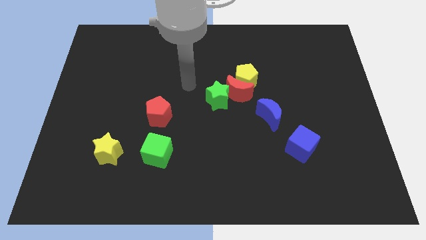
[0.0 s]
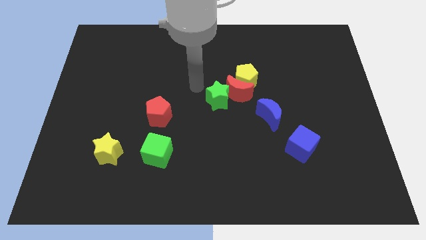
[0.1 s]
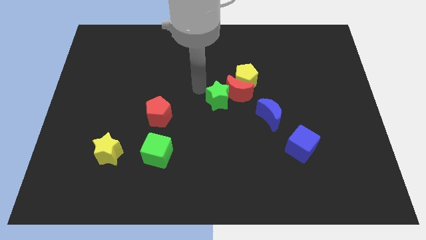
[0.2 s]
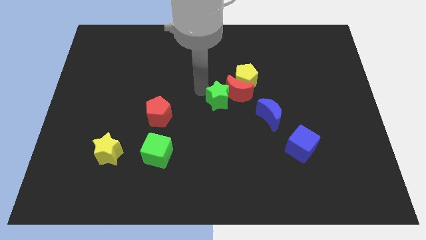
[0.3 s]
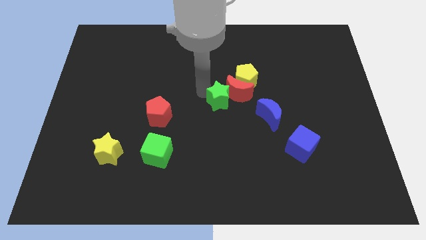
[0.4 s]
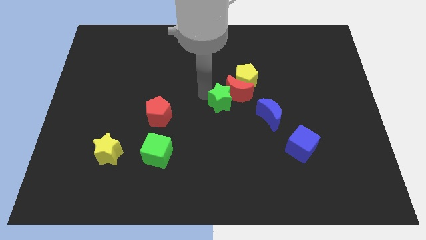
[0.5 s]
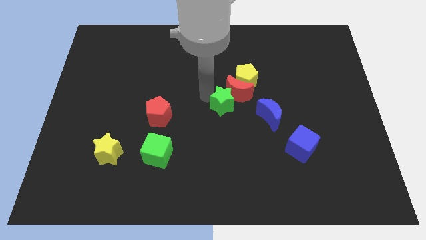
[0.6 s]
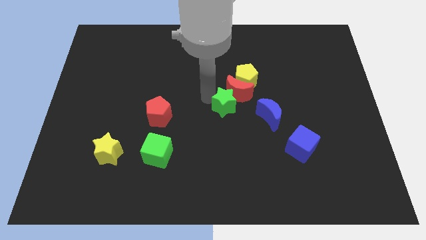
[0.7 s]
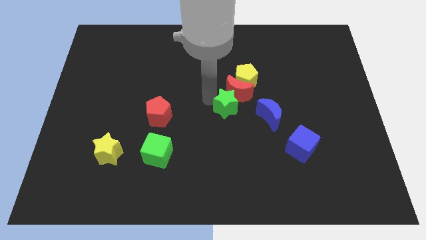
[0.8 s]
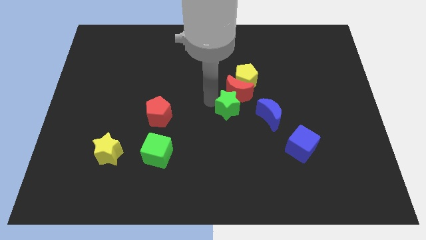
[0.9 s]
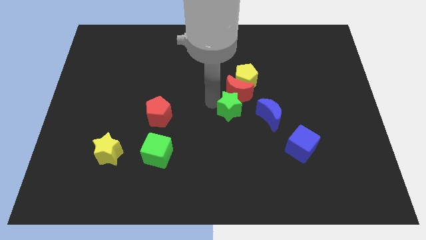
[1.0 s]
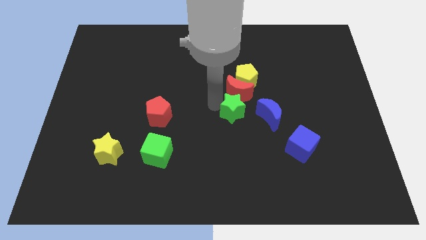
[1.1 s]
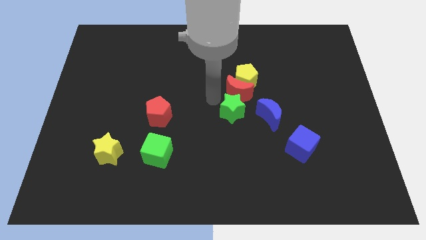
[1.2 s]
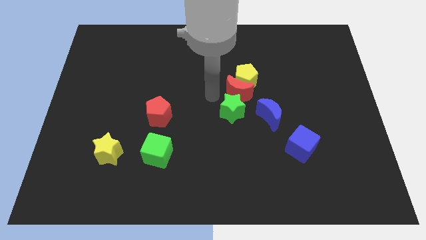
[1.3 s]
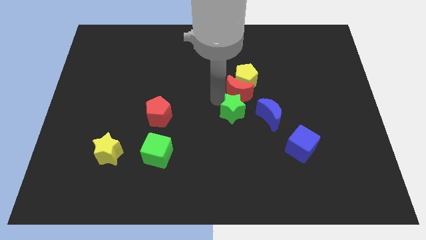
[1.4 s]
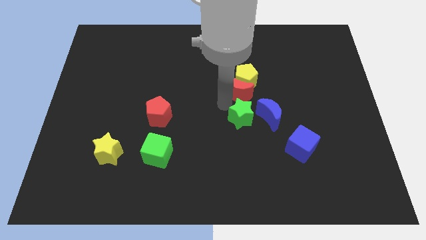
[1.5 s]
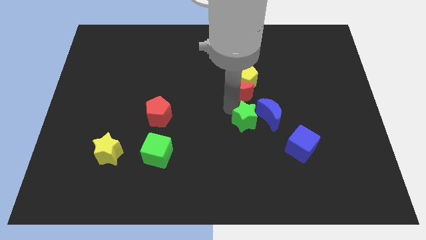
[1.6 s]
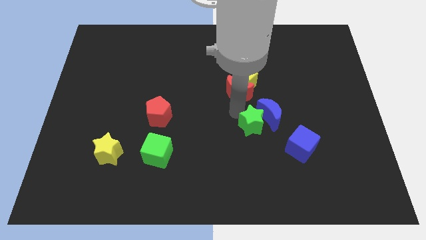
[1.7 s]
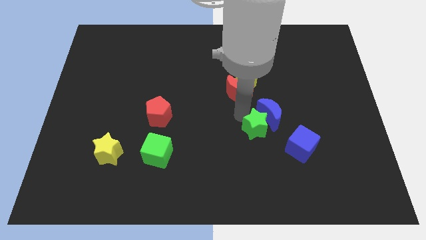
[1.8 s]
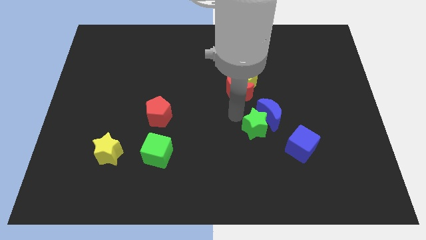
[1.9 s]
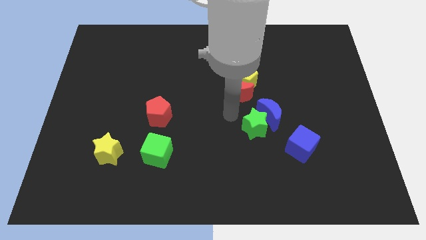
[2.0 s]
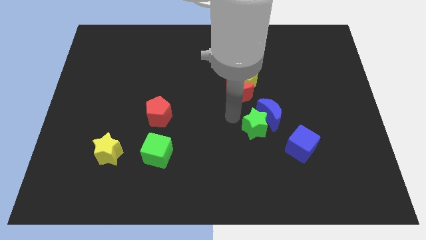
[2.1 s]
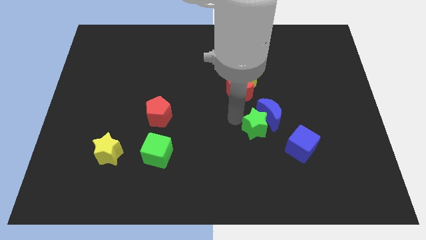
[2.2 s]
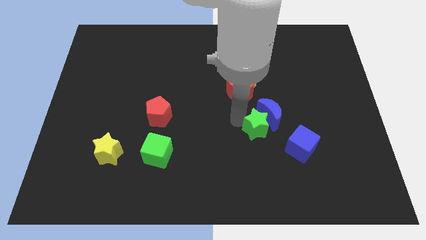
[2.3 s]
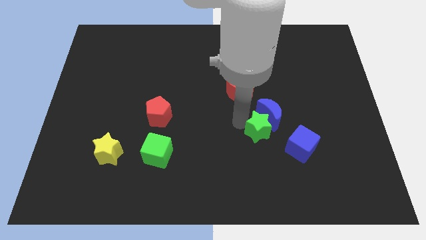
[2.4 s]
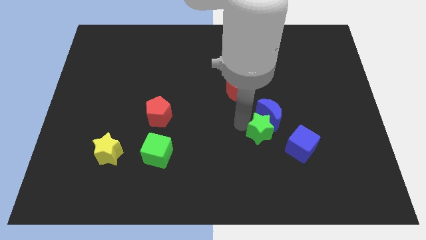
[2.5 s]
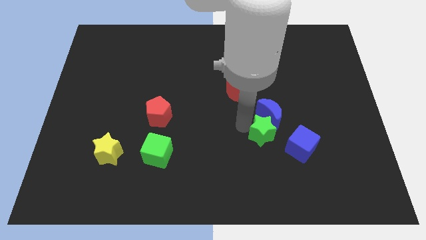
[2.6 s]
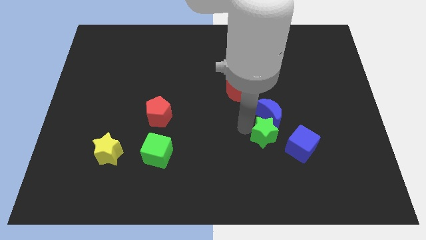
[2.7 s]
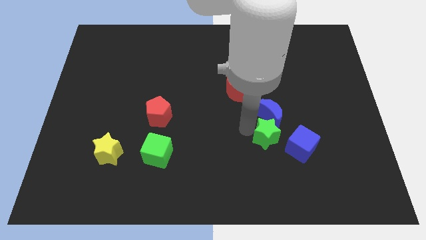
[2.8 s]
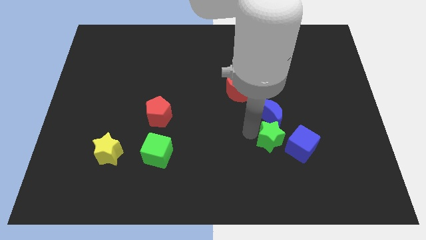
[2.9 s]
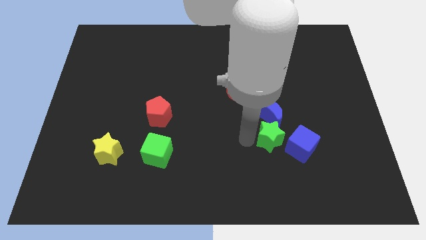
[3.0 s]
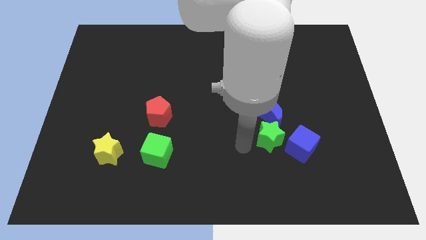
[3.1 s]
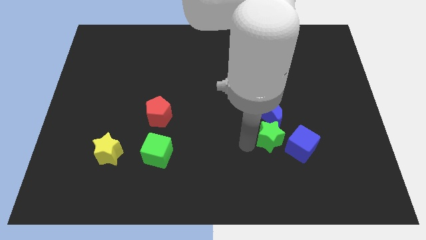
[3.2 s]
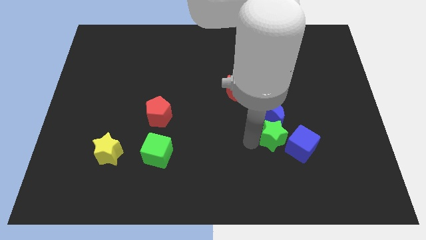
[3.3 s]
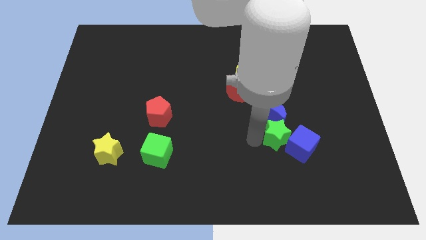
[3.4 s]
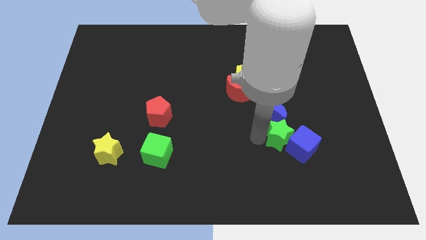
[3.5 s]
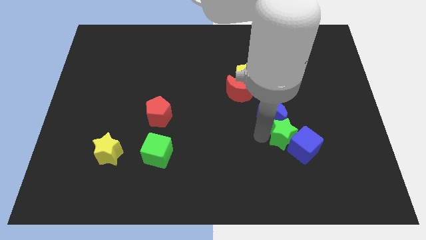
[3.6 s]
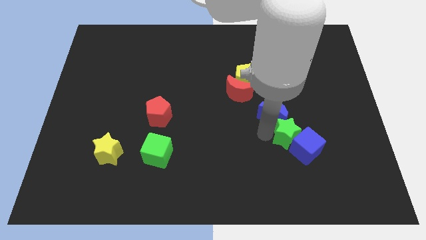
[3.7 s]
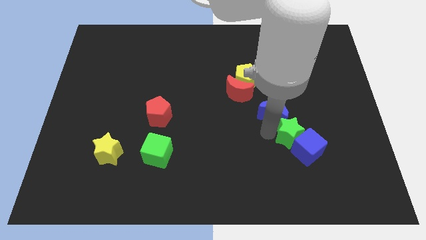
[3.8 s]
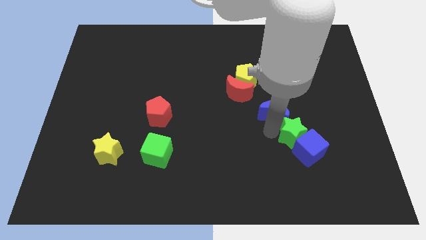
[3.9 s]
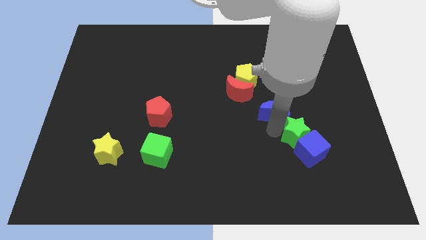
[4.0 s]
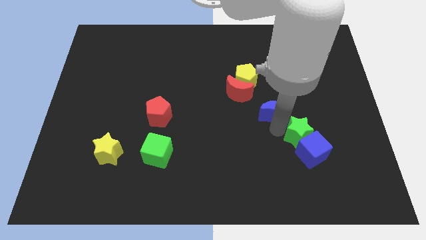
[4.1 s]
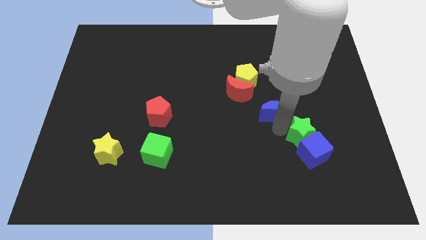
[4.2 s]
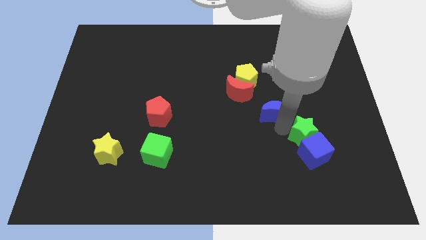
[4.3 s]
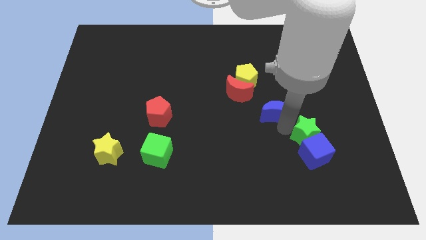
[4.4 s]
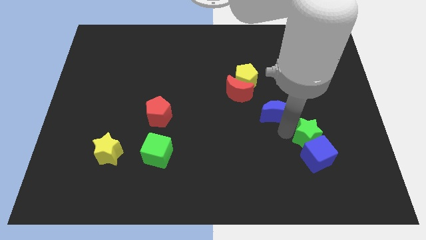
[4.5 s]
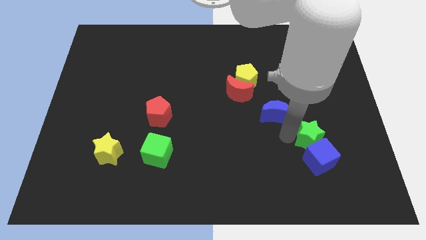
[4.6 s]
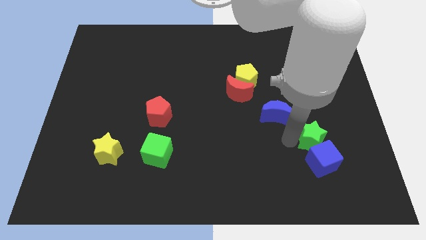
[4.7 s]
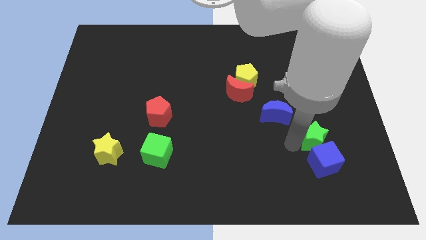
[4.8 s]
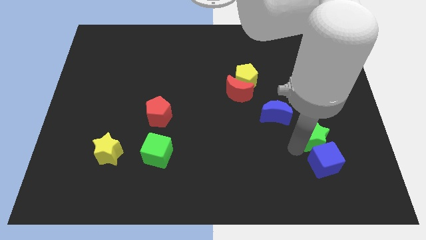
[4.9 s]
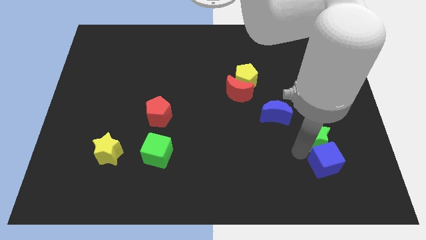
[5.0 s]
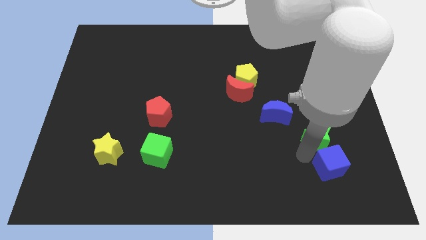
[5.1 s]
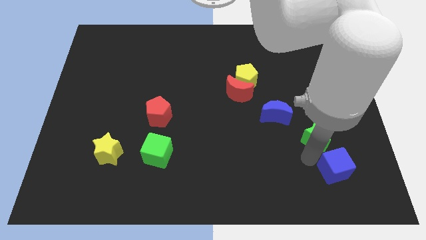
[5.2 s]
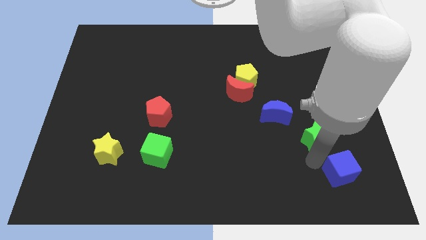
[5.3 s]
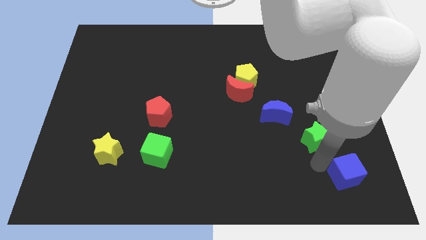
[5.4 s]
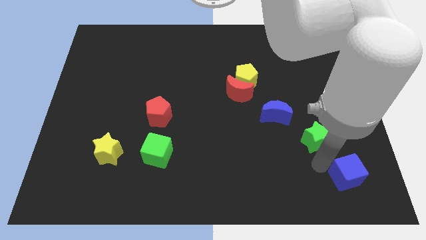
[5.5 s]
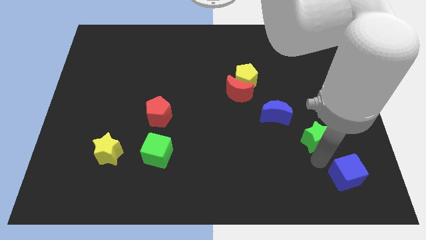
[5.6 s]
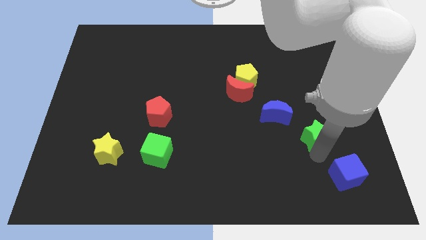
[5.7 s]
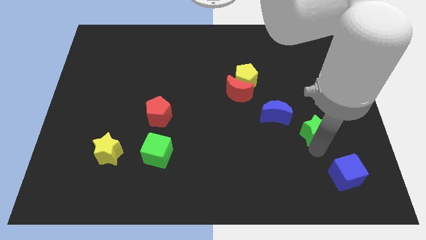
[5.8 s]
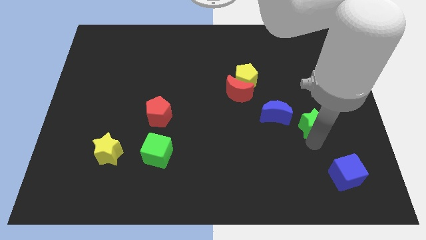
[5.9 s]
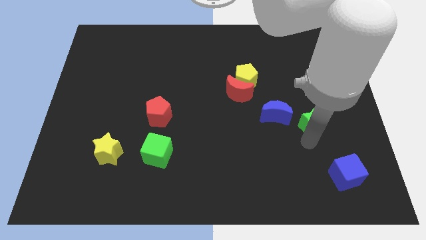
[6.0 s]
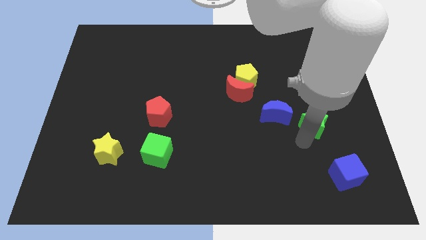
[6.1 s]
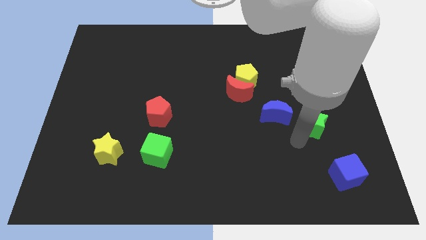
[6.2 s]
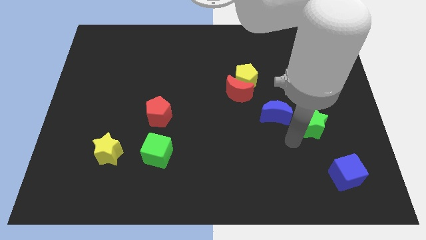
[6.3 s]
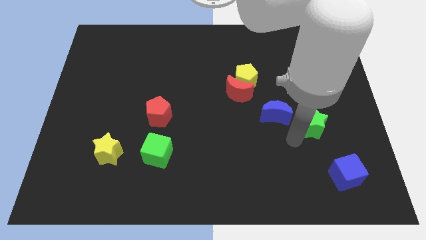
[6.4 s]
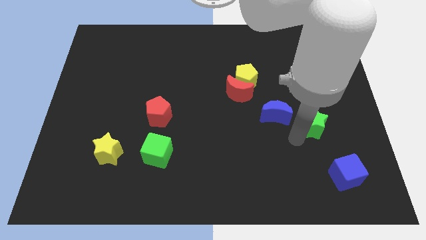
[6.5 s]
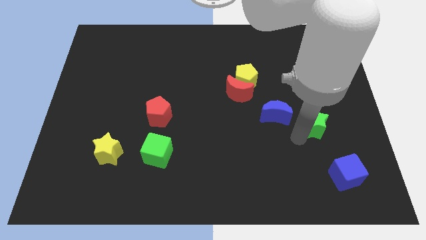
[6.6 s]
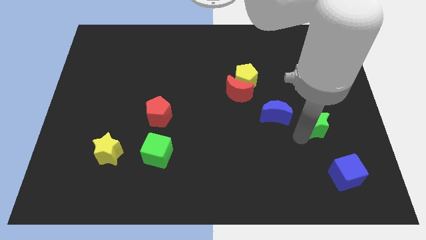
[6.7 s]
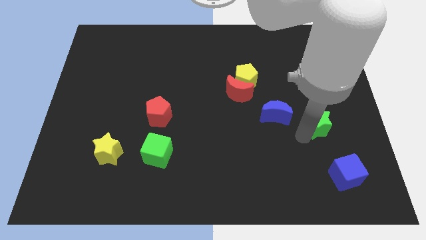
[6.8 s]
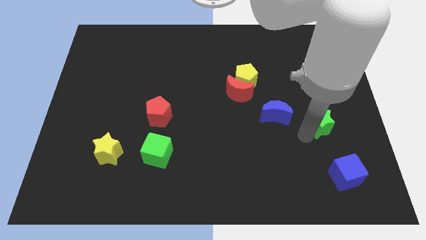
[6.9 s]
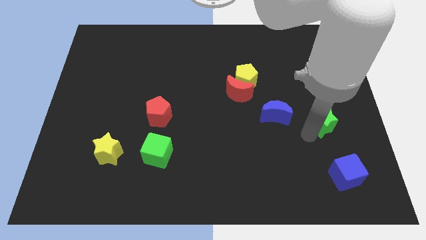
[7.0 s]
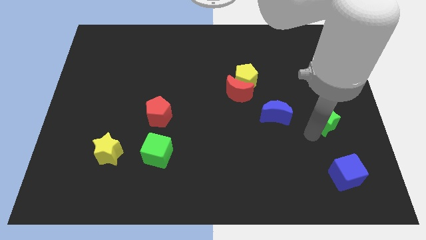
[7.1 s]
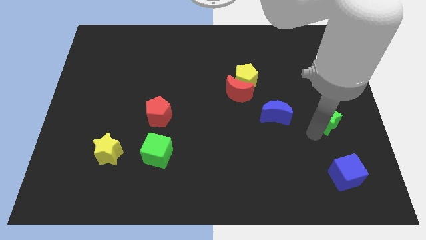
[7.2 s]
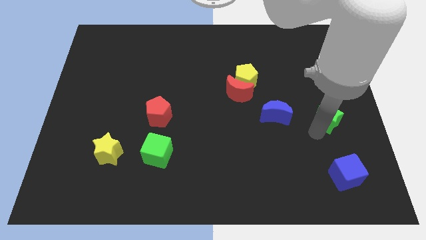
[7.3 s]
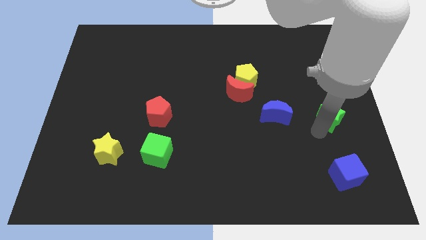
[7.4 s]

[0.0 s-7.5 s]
push the green star to the right side of the board
